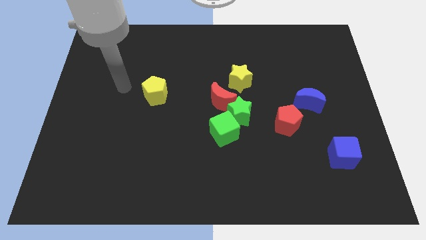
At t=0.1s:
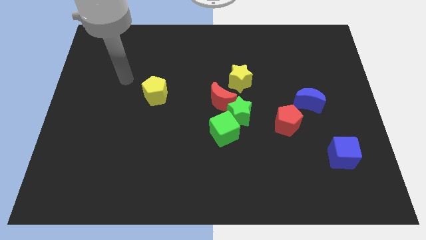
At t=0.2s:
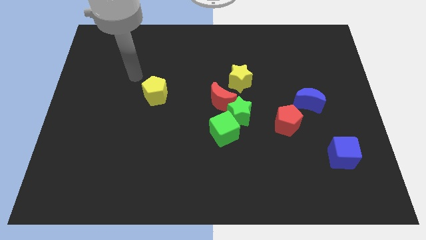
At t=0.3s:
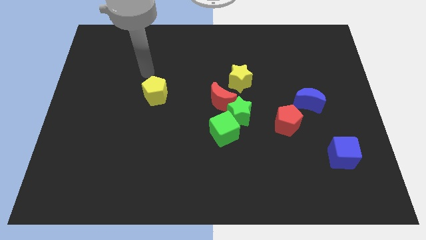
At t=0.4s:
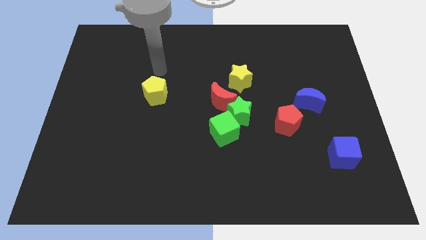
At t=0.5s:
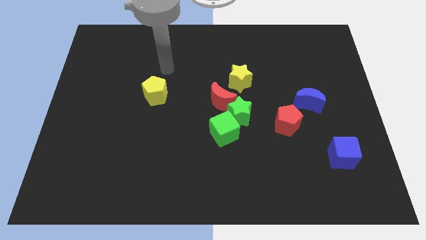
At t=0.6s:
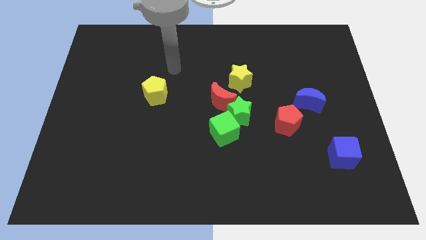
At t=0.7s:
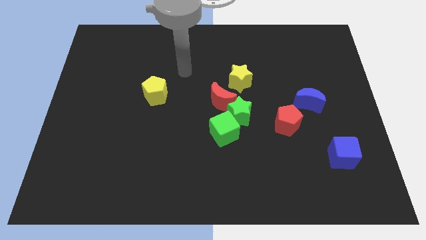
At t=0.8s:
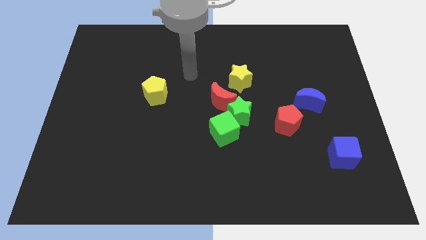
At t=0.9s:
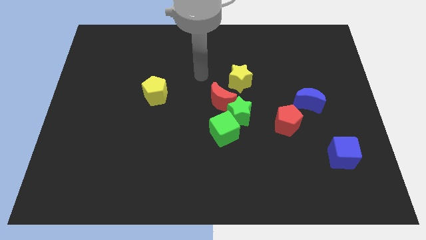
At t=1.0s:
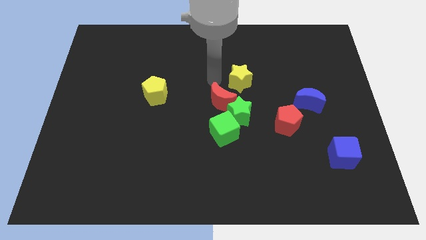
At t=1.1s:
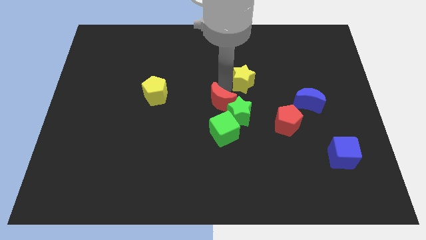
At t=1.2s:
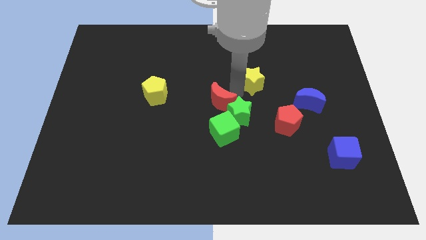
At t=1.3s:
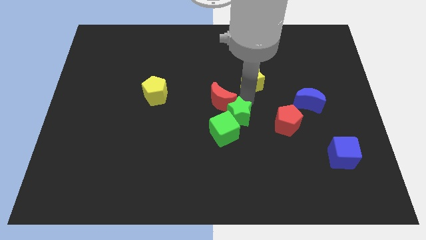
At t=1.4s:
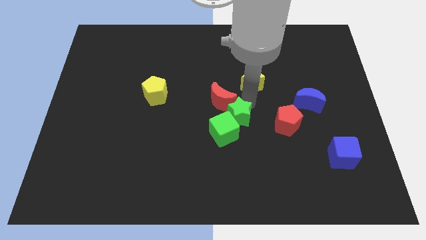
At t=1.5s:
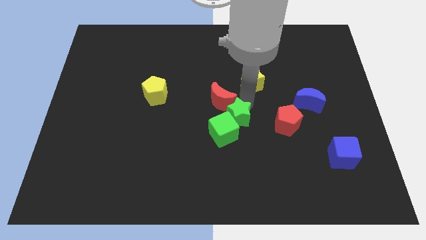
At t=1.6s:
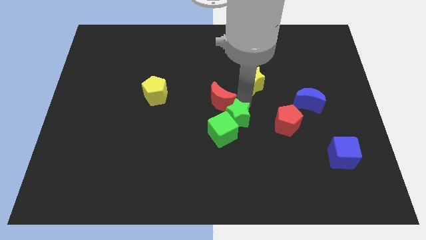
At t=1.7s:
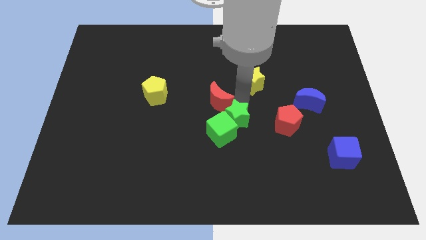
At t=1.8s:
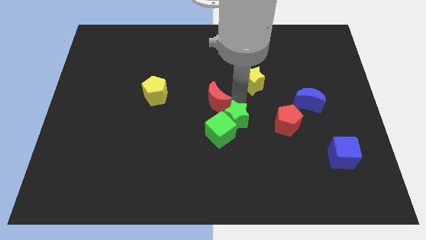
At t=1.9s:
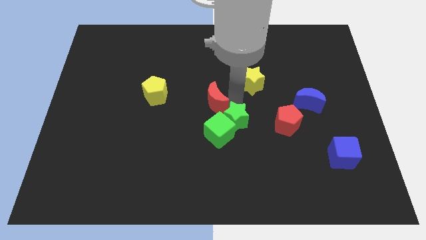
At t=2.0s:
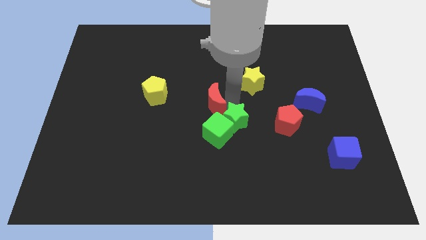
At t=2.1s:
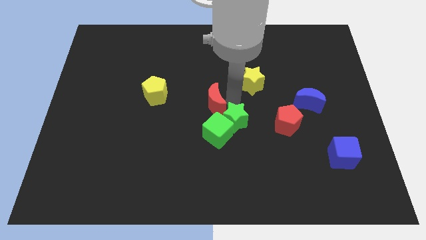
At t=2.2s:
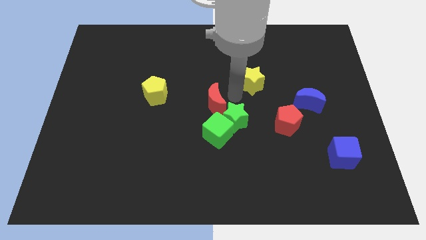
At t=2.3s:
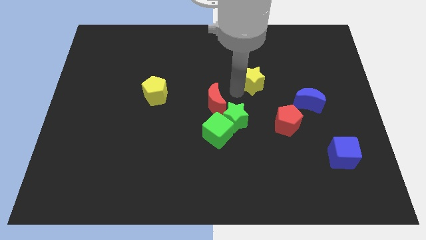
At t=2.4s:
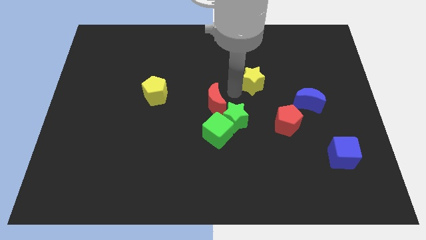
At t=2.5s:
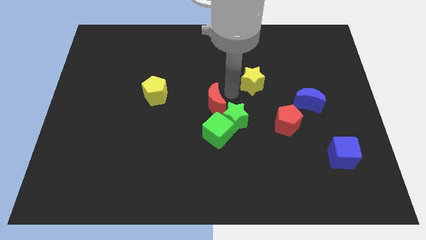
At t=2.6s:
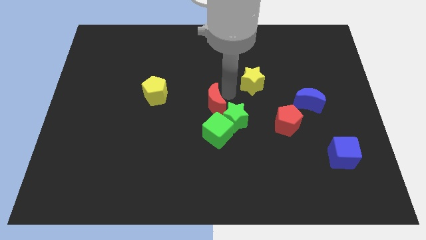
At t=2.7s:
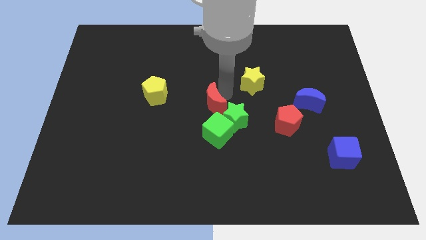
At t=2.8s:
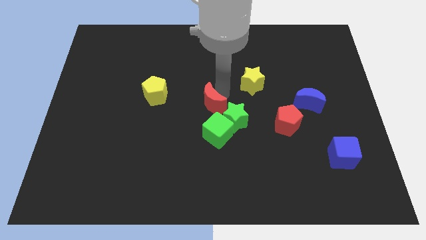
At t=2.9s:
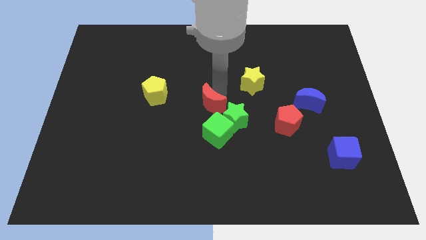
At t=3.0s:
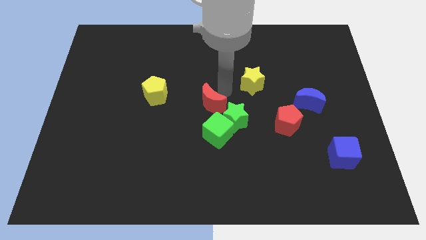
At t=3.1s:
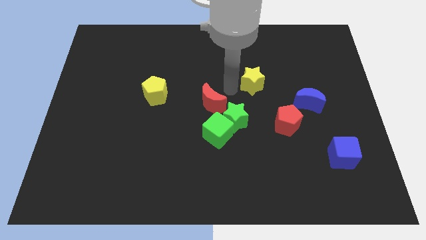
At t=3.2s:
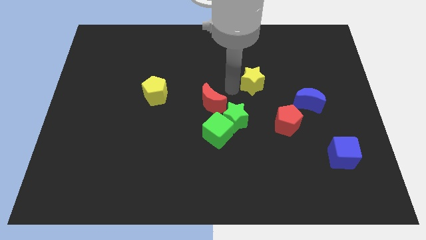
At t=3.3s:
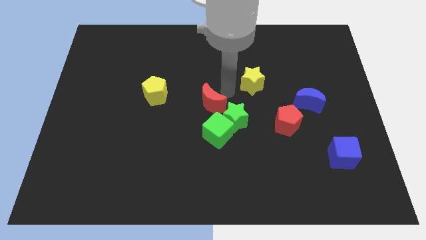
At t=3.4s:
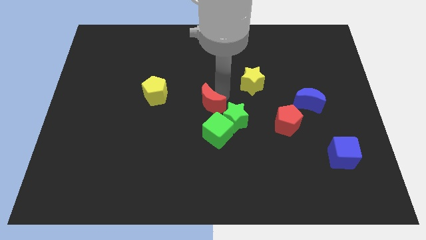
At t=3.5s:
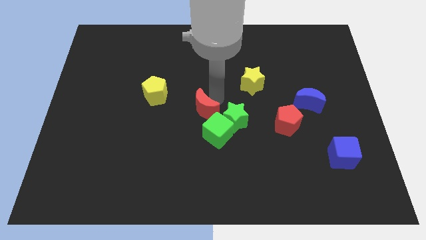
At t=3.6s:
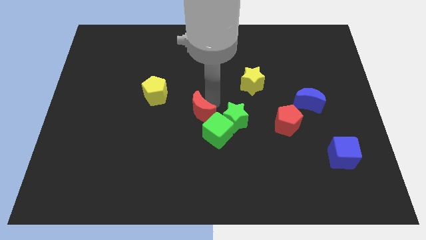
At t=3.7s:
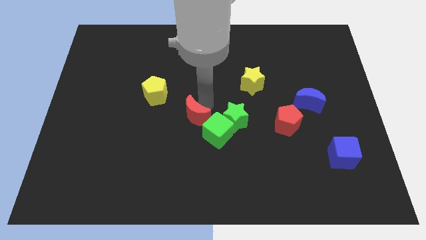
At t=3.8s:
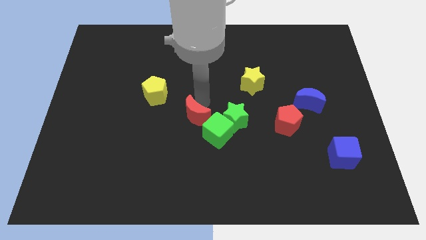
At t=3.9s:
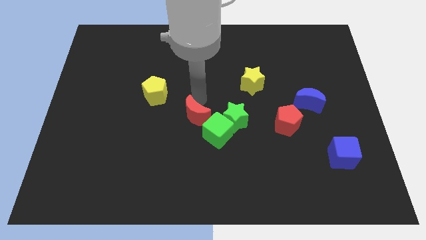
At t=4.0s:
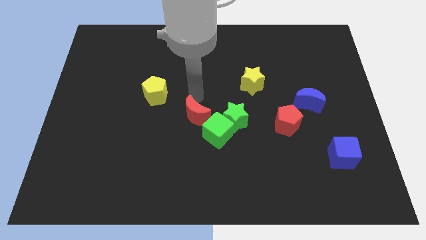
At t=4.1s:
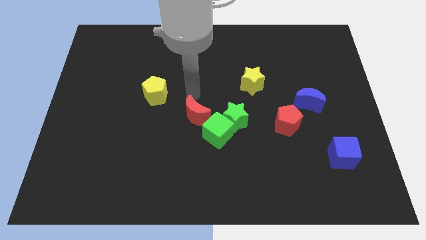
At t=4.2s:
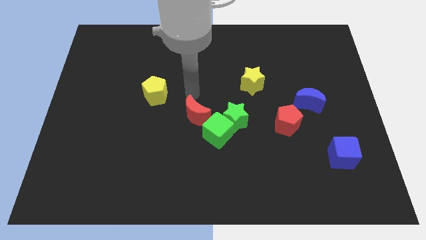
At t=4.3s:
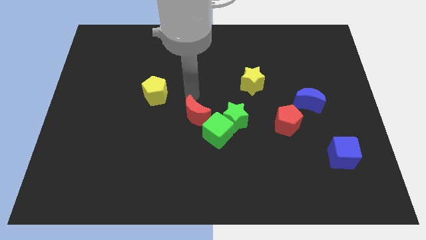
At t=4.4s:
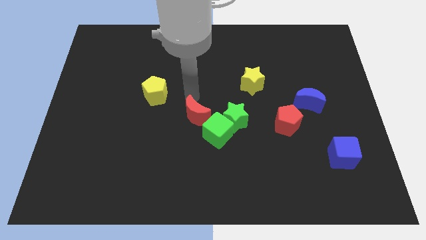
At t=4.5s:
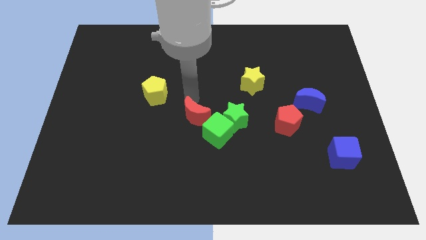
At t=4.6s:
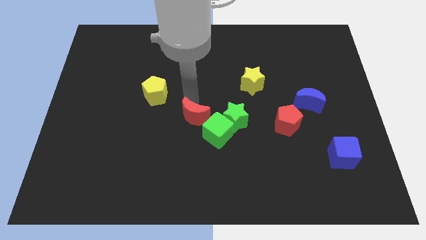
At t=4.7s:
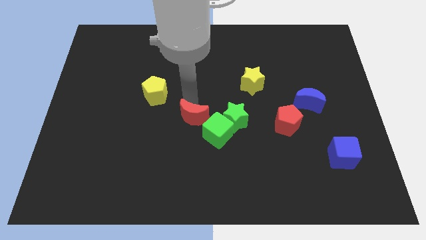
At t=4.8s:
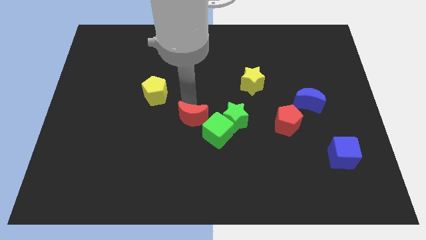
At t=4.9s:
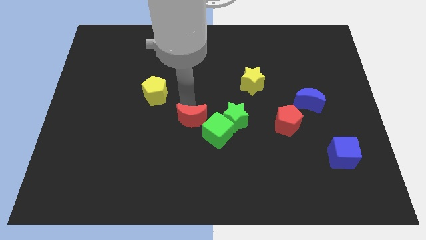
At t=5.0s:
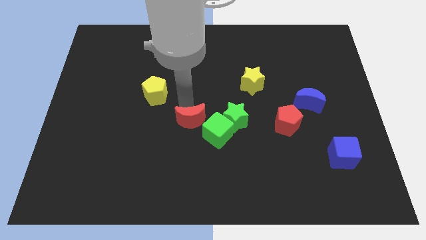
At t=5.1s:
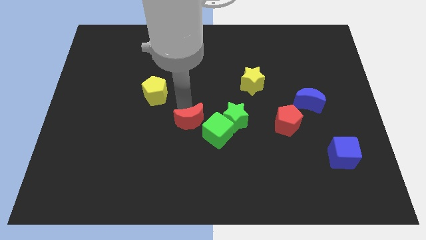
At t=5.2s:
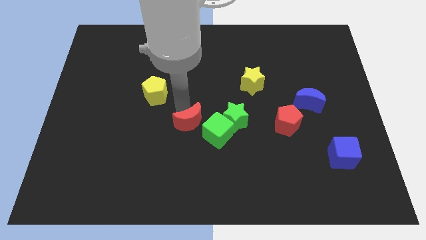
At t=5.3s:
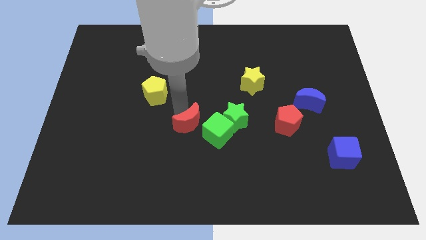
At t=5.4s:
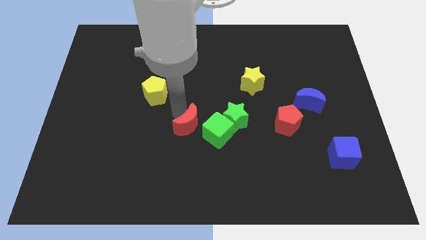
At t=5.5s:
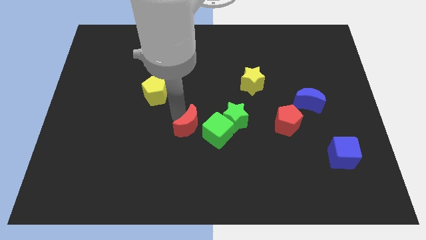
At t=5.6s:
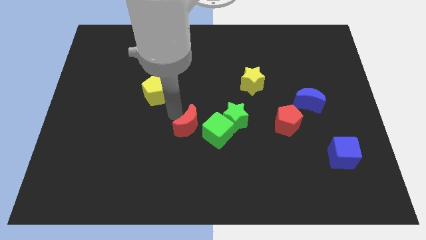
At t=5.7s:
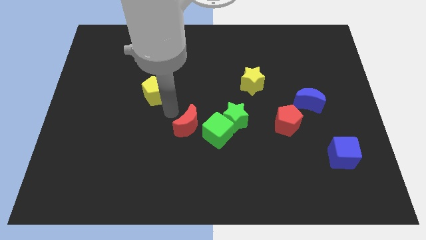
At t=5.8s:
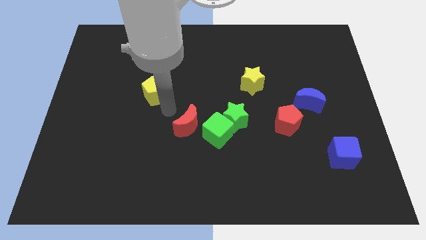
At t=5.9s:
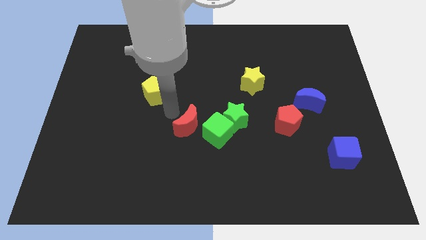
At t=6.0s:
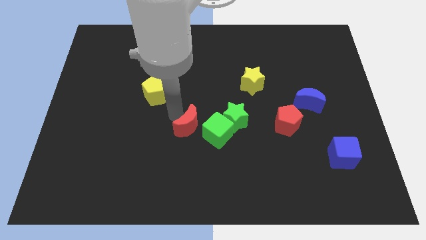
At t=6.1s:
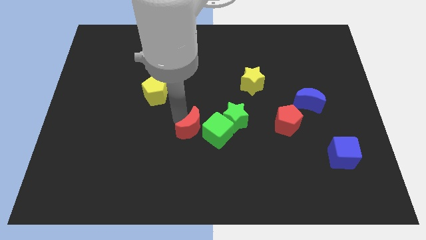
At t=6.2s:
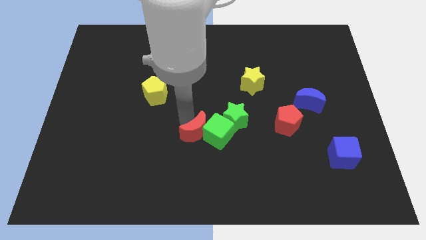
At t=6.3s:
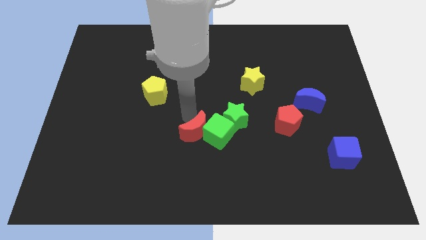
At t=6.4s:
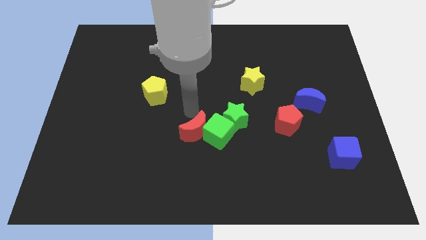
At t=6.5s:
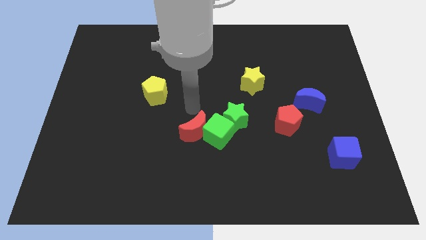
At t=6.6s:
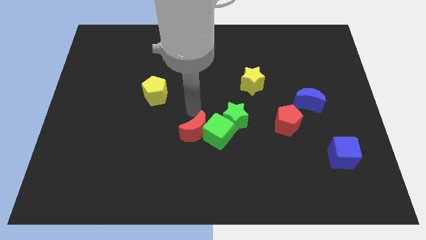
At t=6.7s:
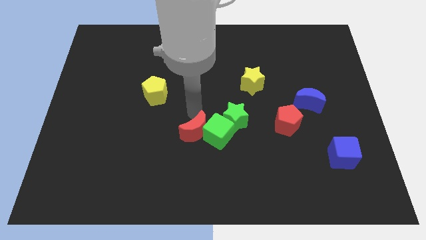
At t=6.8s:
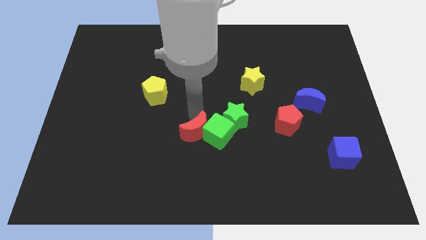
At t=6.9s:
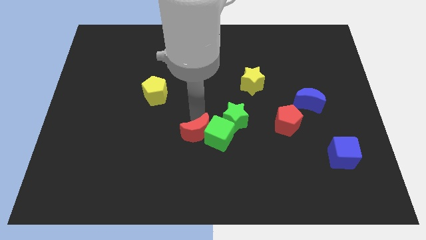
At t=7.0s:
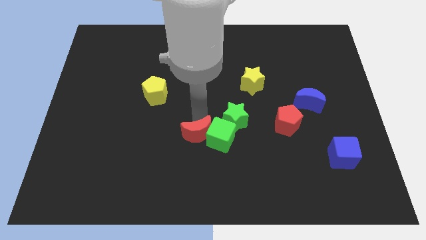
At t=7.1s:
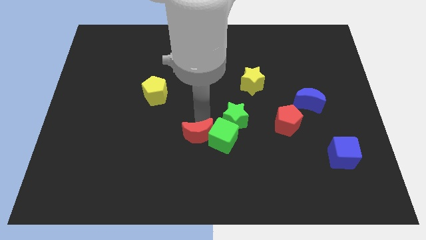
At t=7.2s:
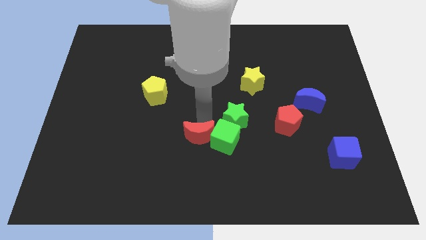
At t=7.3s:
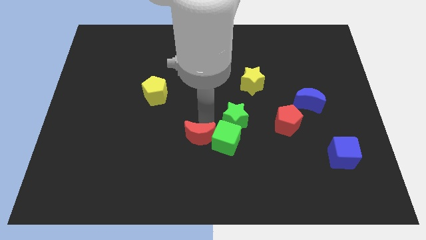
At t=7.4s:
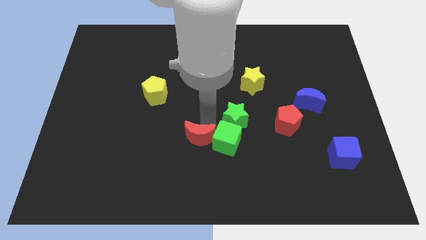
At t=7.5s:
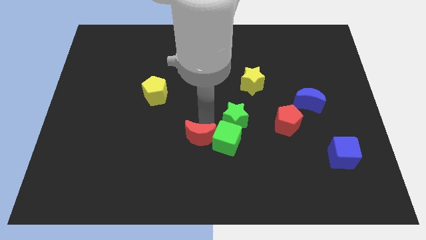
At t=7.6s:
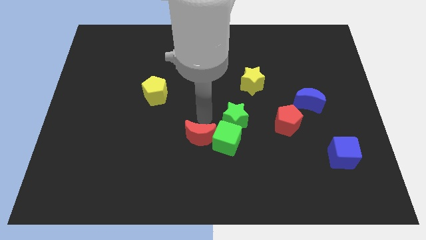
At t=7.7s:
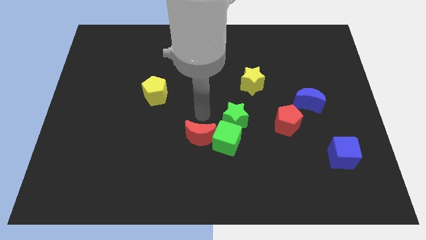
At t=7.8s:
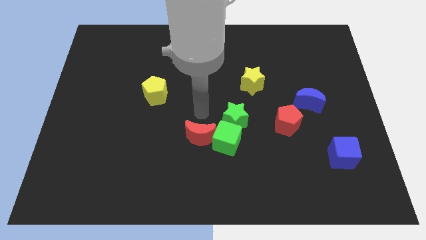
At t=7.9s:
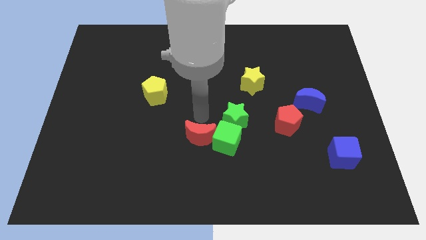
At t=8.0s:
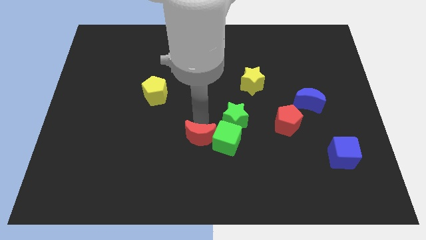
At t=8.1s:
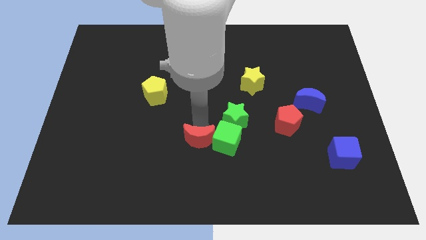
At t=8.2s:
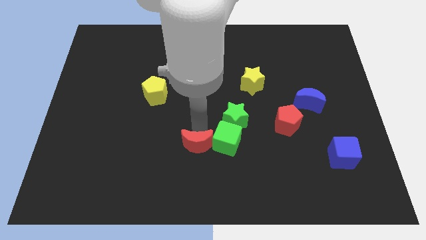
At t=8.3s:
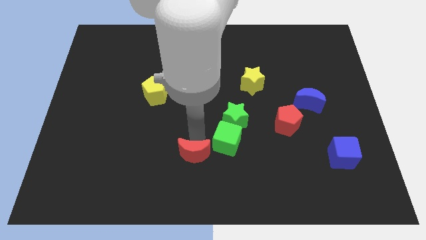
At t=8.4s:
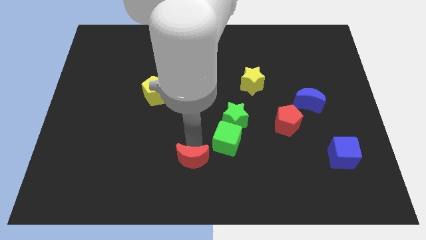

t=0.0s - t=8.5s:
push the red moon to the bottom
